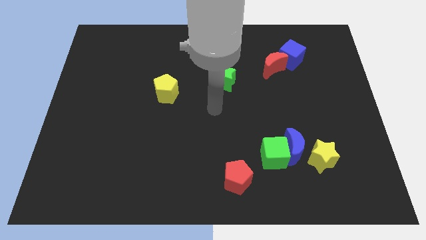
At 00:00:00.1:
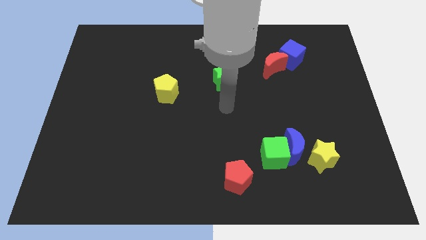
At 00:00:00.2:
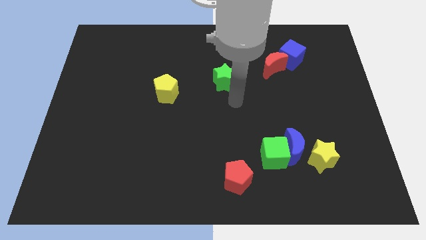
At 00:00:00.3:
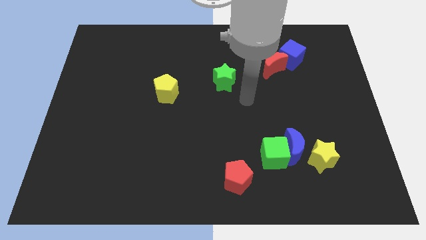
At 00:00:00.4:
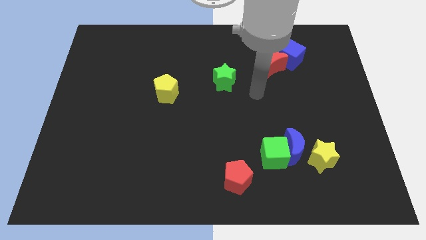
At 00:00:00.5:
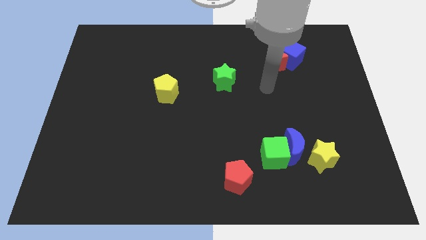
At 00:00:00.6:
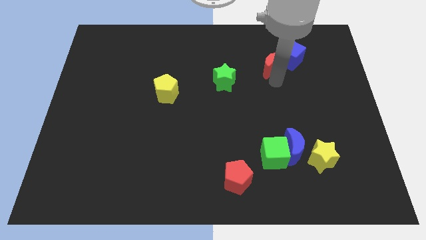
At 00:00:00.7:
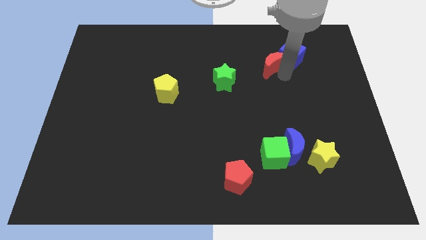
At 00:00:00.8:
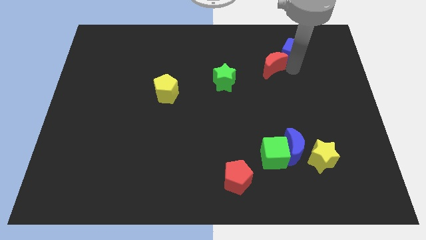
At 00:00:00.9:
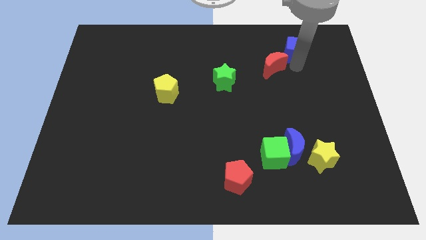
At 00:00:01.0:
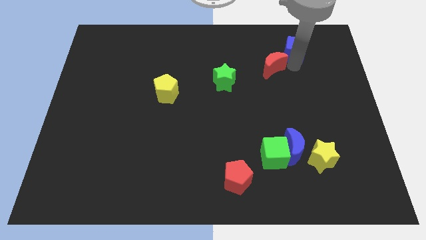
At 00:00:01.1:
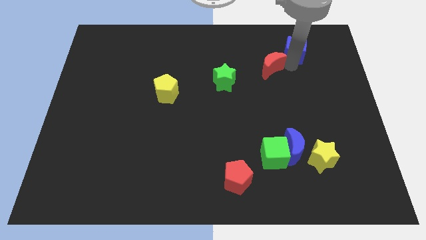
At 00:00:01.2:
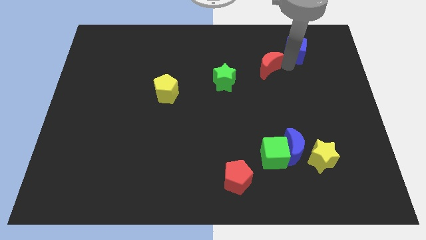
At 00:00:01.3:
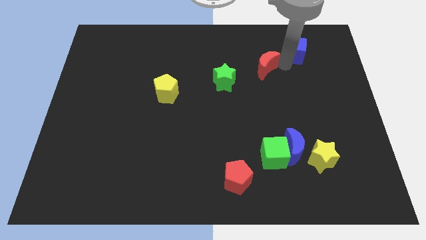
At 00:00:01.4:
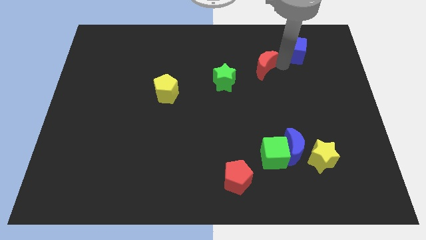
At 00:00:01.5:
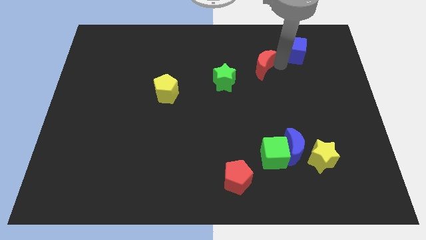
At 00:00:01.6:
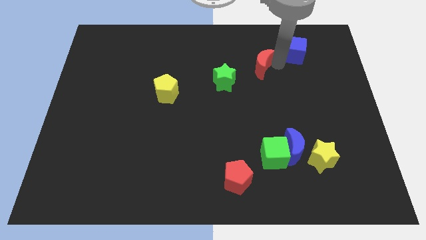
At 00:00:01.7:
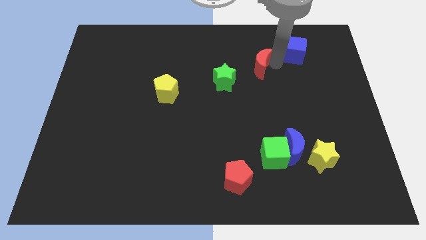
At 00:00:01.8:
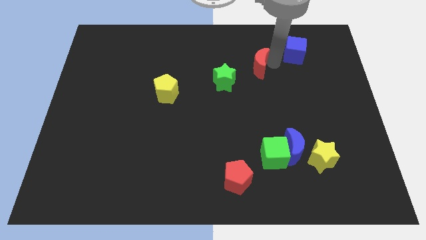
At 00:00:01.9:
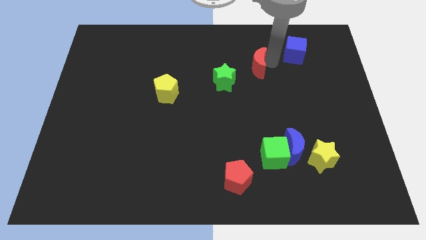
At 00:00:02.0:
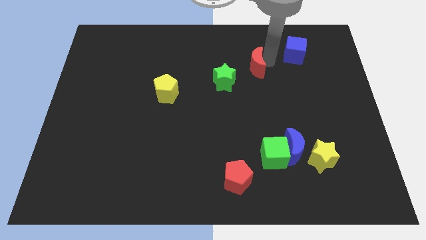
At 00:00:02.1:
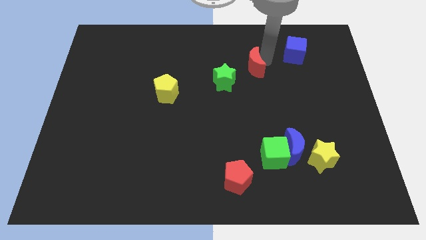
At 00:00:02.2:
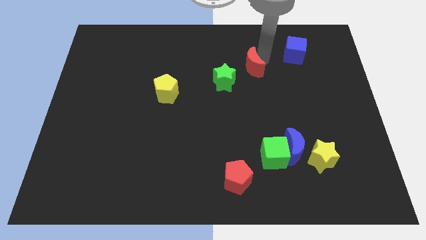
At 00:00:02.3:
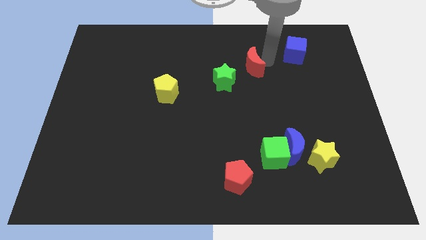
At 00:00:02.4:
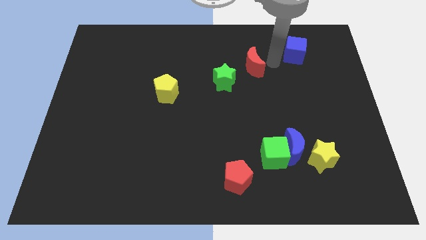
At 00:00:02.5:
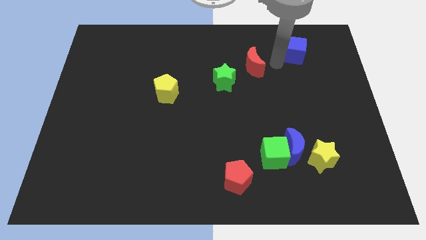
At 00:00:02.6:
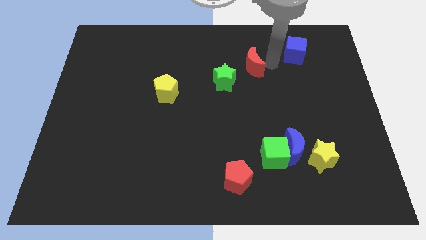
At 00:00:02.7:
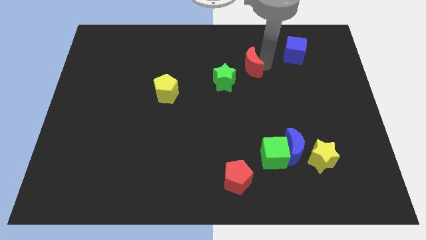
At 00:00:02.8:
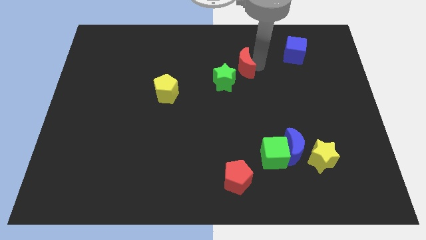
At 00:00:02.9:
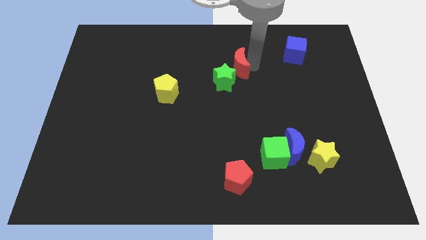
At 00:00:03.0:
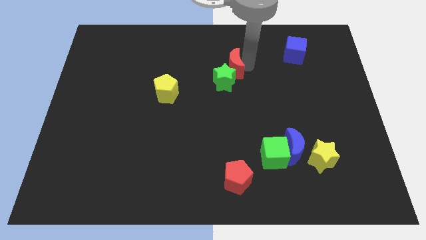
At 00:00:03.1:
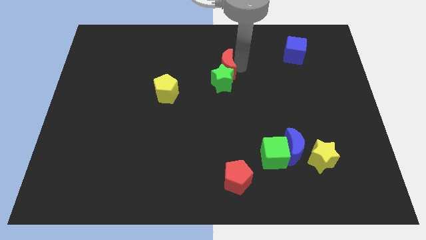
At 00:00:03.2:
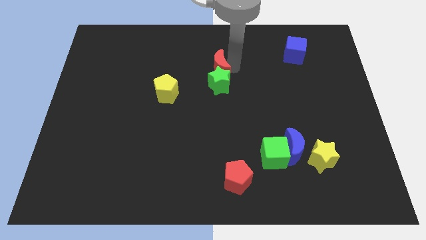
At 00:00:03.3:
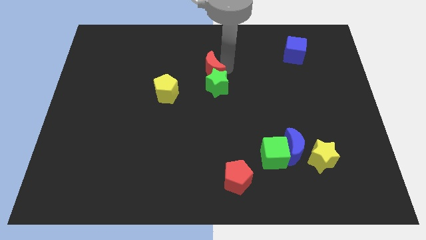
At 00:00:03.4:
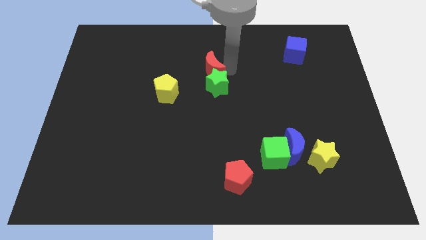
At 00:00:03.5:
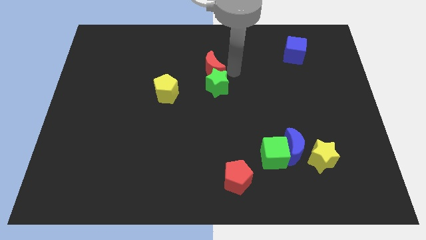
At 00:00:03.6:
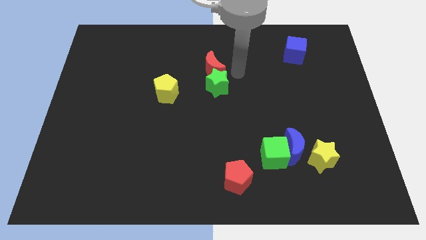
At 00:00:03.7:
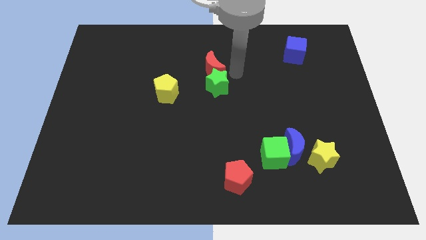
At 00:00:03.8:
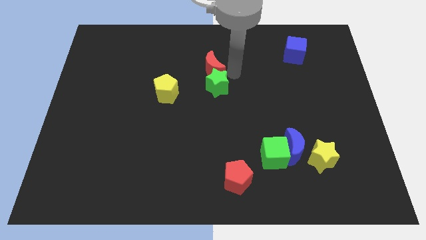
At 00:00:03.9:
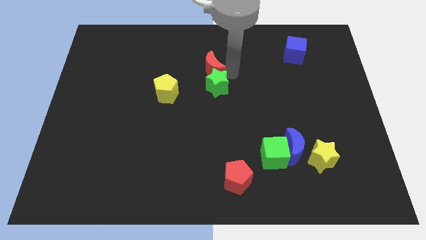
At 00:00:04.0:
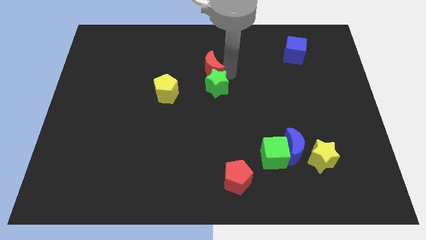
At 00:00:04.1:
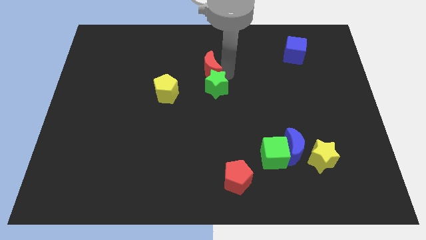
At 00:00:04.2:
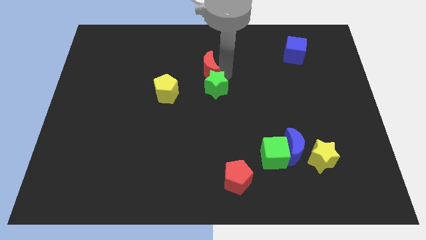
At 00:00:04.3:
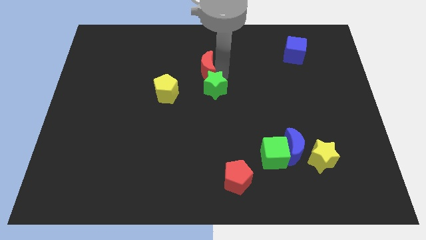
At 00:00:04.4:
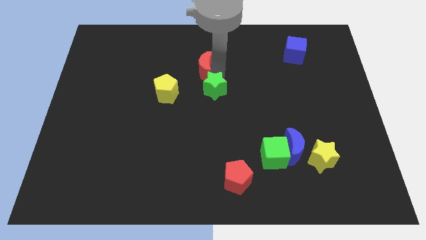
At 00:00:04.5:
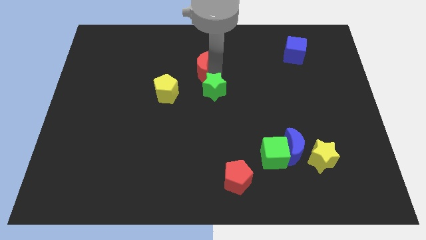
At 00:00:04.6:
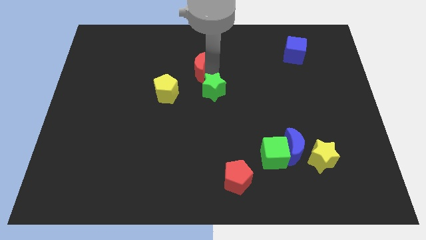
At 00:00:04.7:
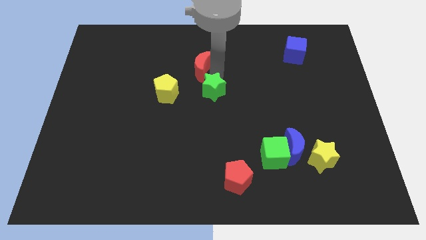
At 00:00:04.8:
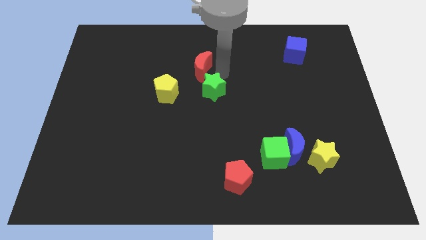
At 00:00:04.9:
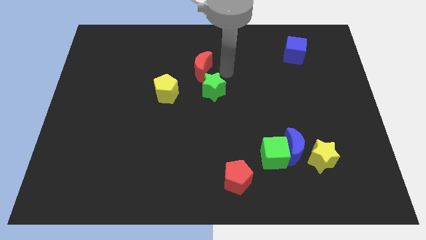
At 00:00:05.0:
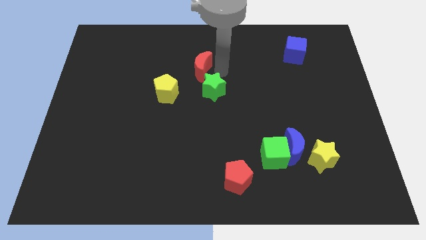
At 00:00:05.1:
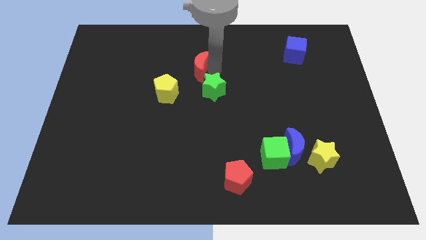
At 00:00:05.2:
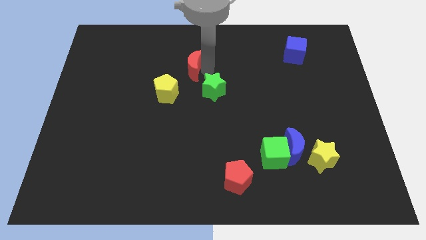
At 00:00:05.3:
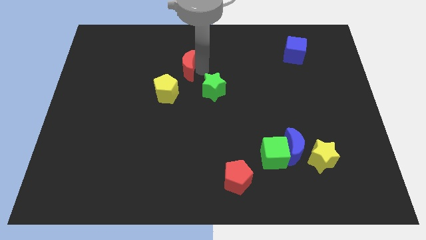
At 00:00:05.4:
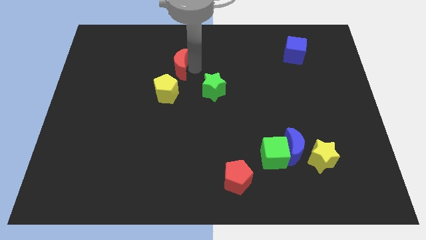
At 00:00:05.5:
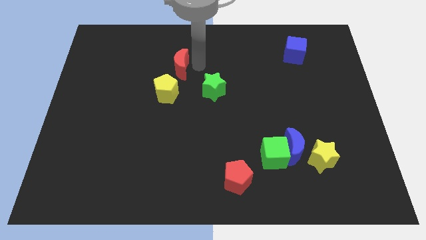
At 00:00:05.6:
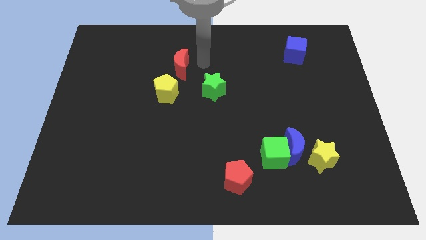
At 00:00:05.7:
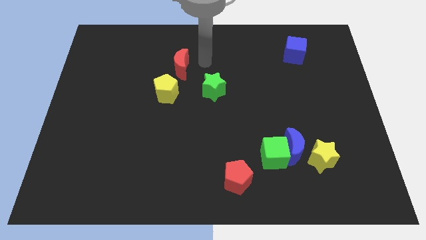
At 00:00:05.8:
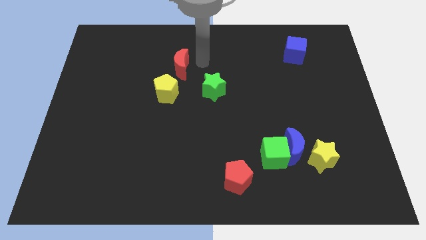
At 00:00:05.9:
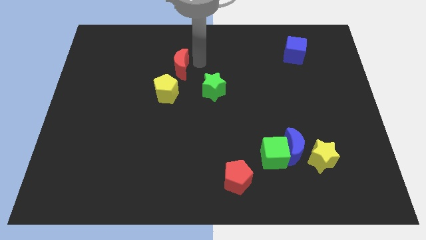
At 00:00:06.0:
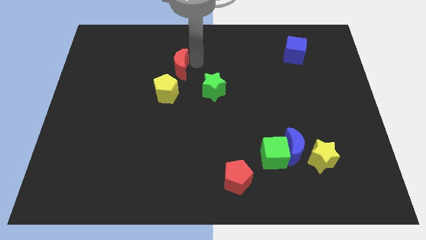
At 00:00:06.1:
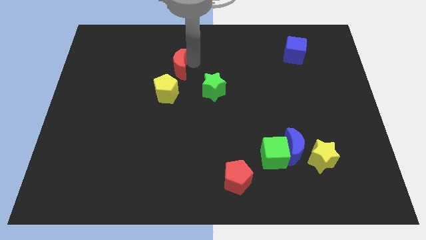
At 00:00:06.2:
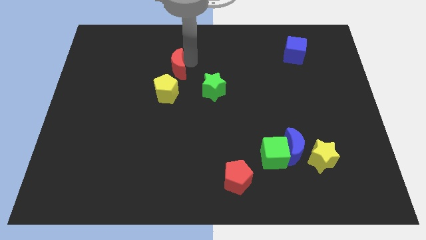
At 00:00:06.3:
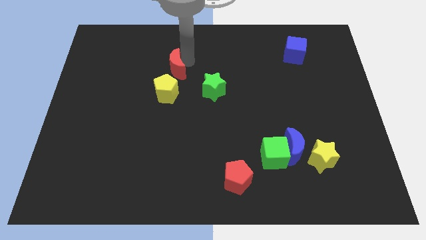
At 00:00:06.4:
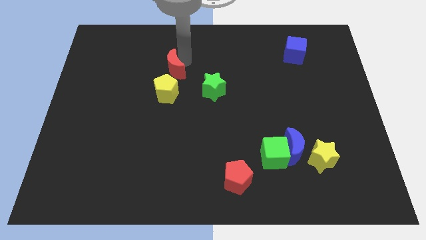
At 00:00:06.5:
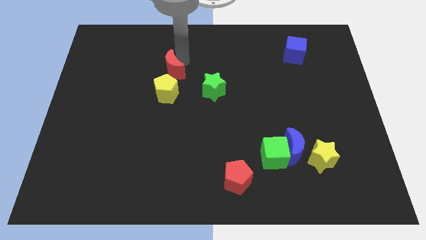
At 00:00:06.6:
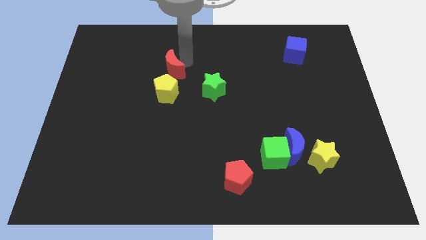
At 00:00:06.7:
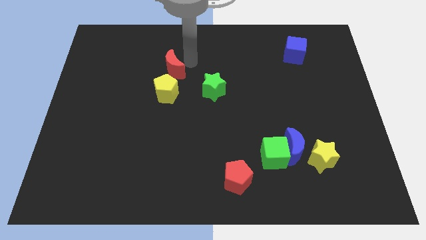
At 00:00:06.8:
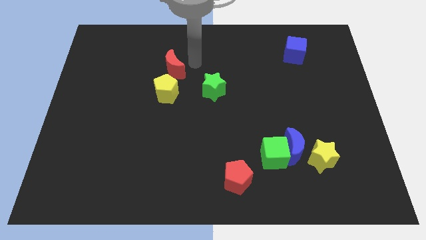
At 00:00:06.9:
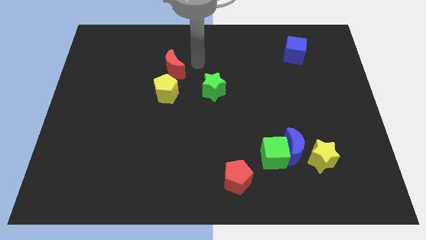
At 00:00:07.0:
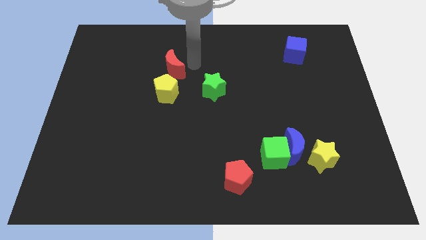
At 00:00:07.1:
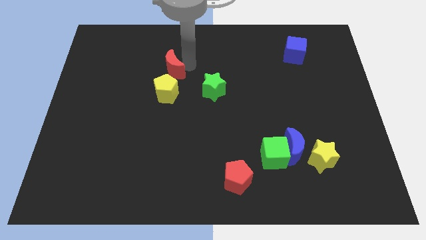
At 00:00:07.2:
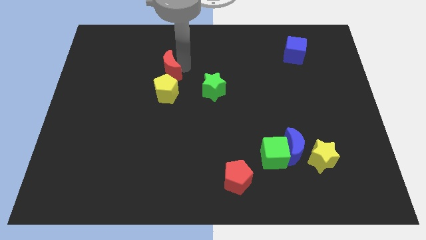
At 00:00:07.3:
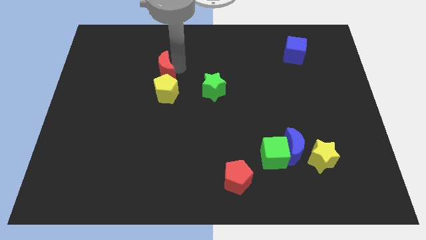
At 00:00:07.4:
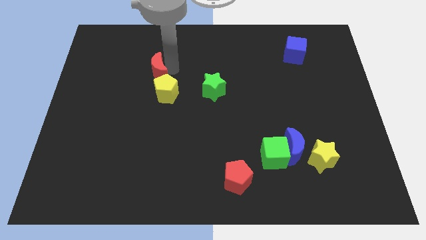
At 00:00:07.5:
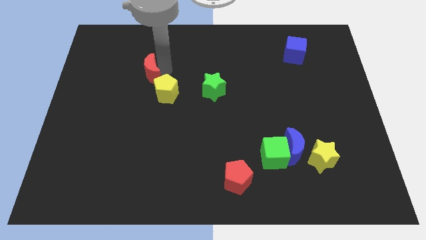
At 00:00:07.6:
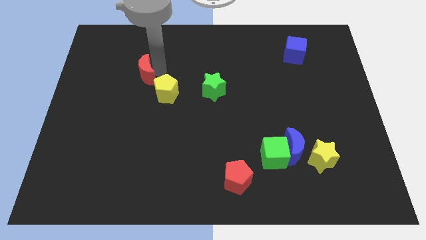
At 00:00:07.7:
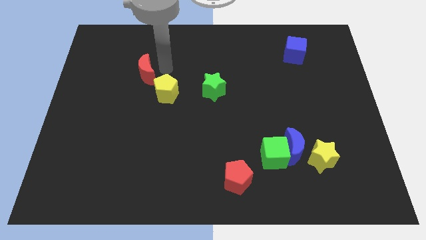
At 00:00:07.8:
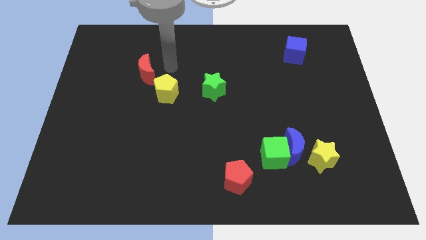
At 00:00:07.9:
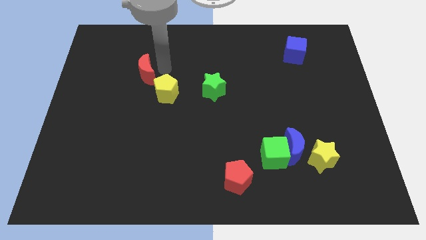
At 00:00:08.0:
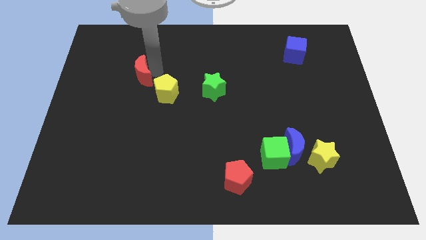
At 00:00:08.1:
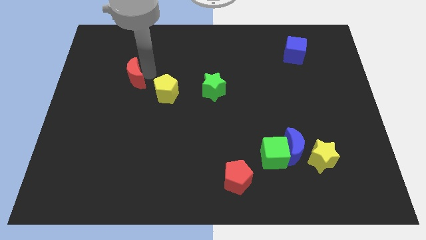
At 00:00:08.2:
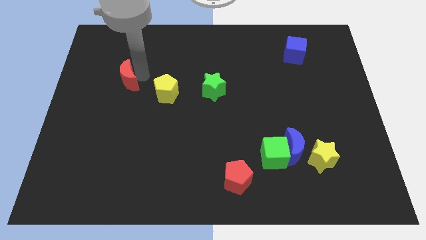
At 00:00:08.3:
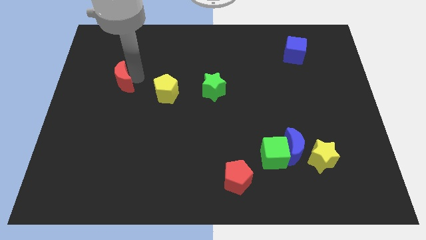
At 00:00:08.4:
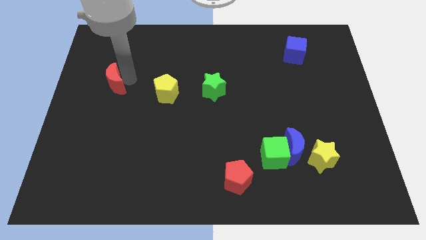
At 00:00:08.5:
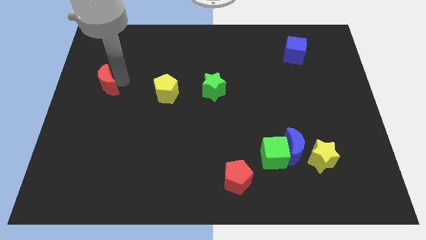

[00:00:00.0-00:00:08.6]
push the red moon to the left side of the board
